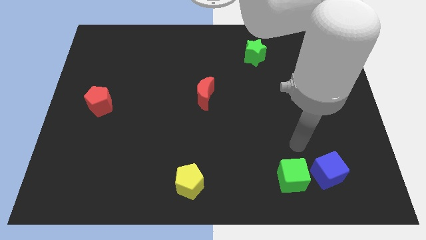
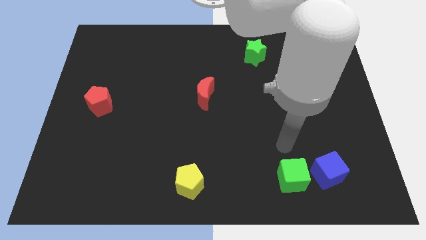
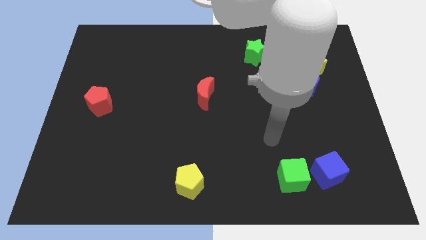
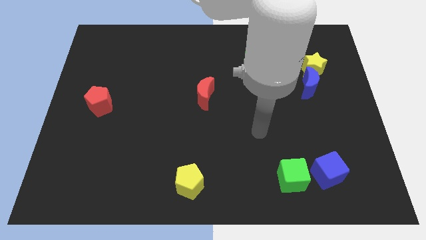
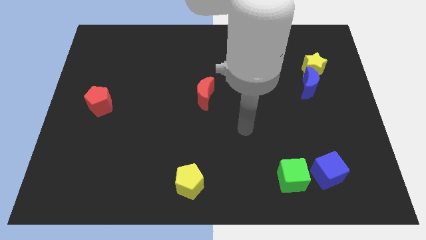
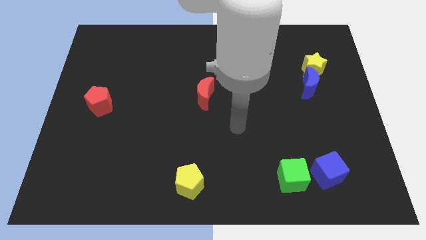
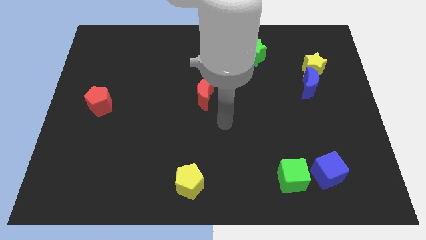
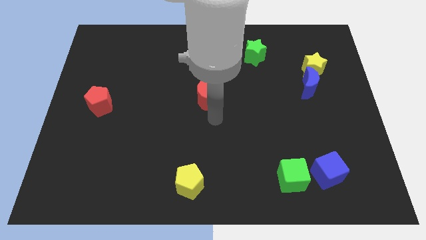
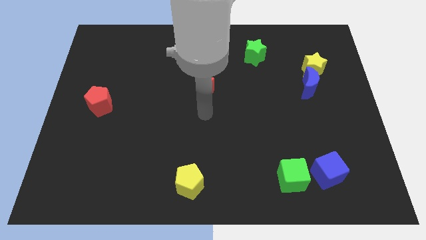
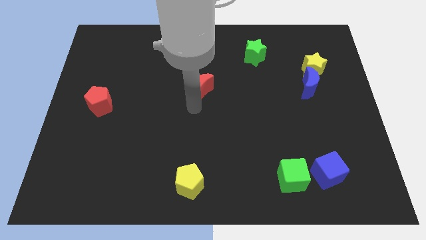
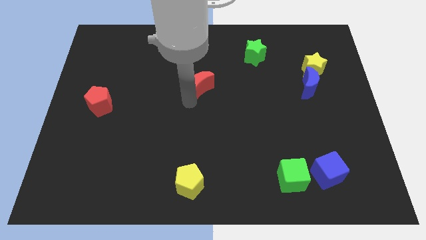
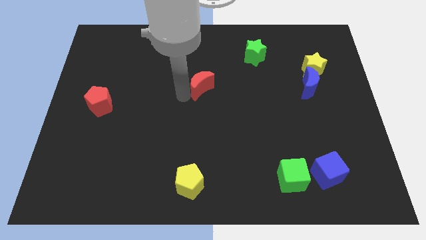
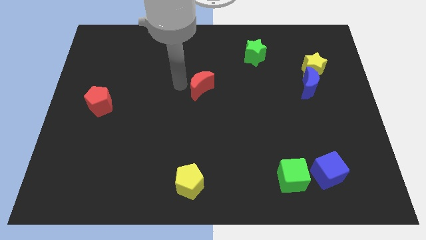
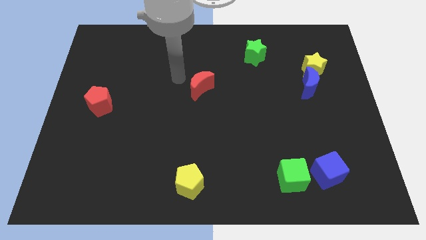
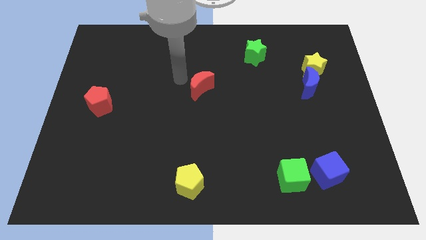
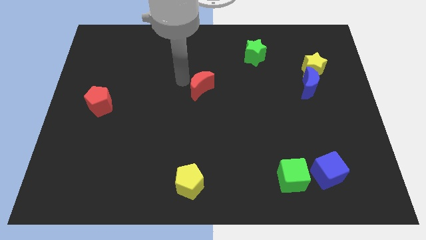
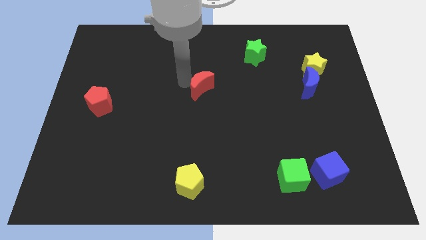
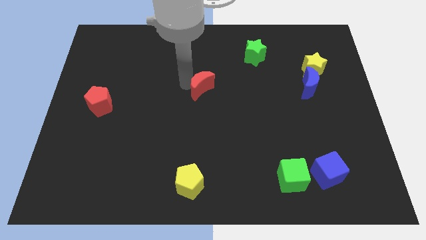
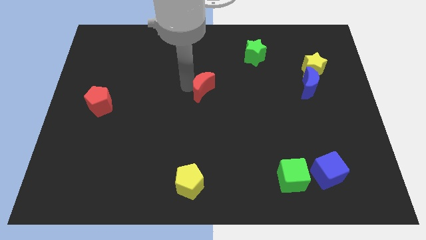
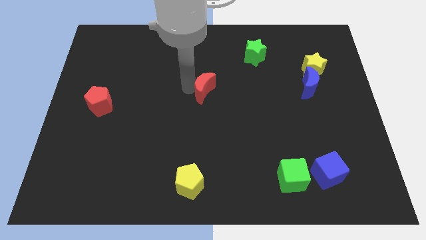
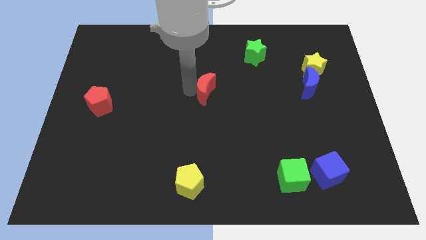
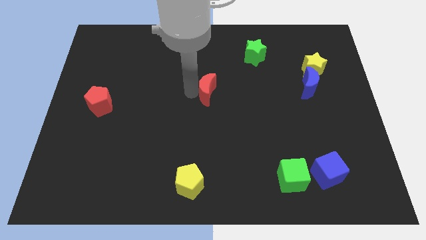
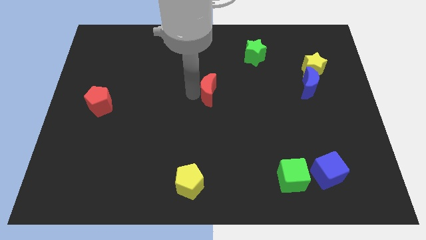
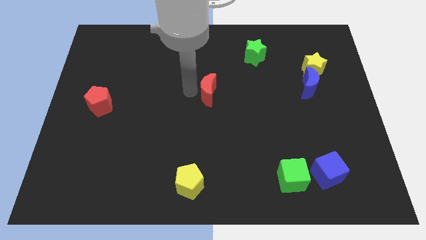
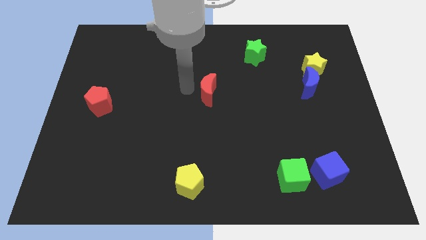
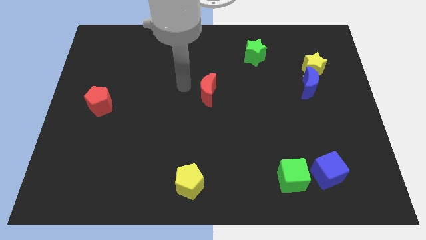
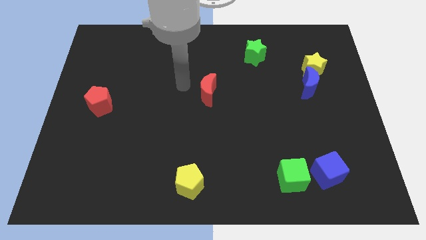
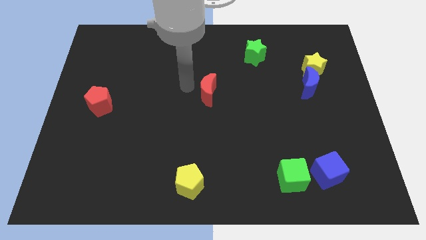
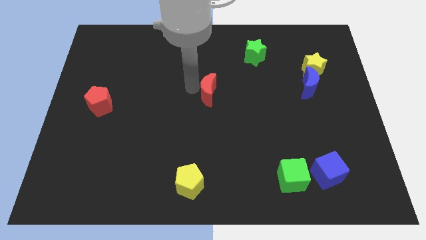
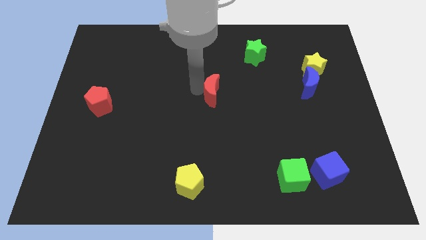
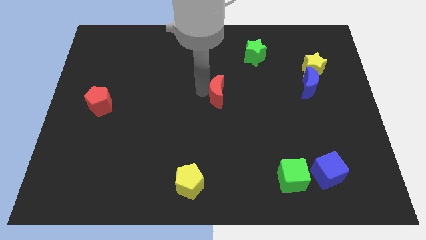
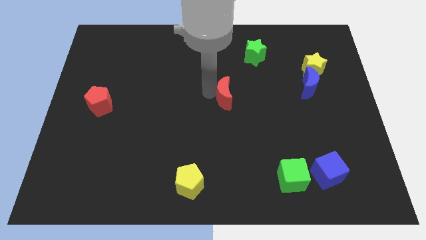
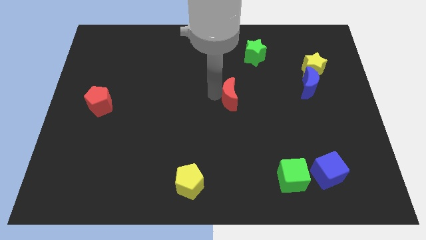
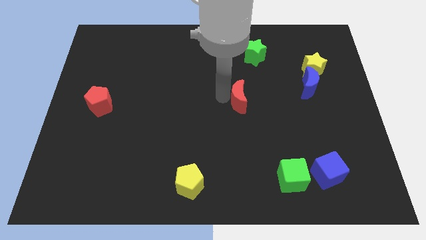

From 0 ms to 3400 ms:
slightly slide the red moon to the right

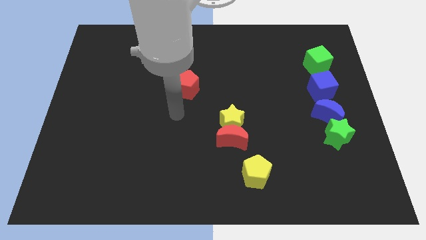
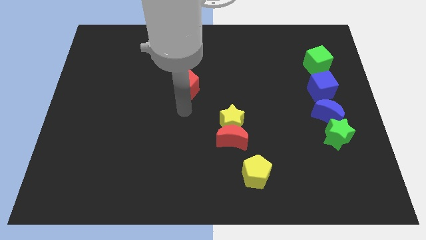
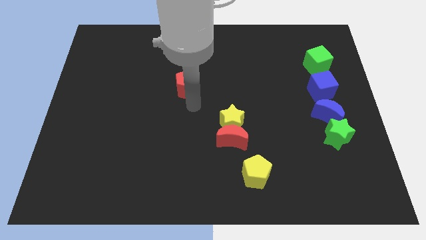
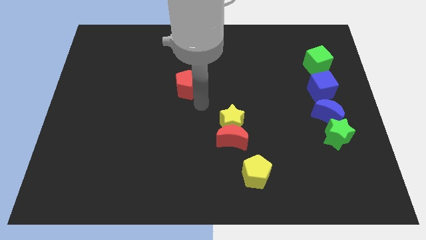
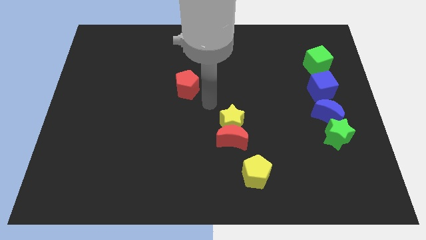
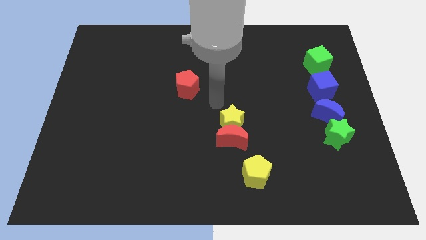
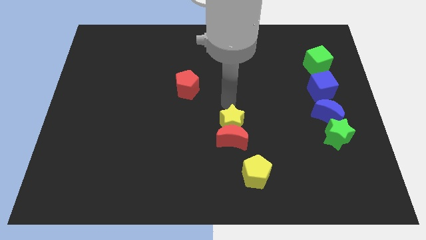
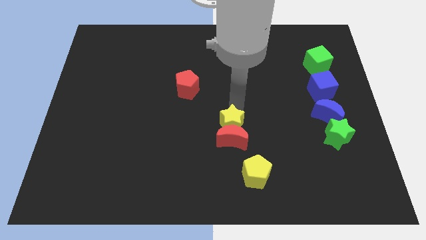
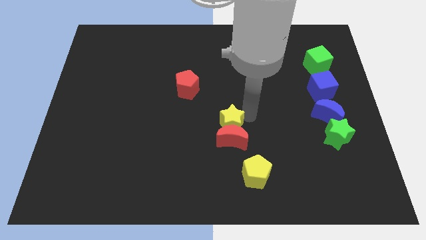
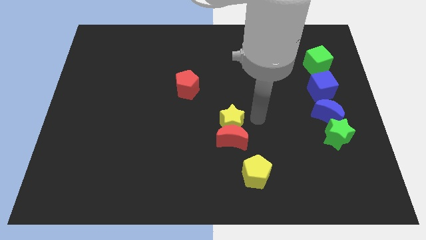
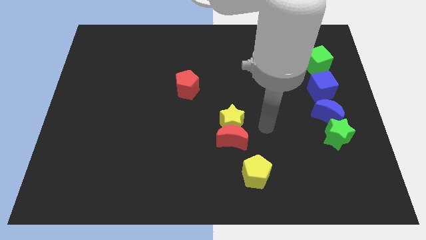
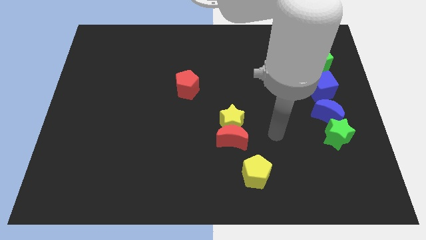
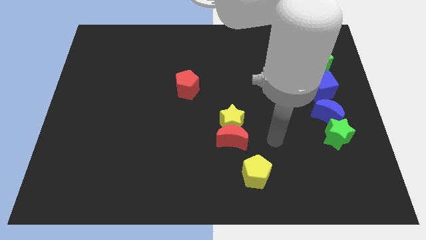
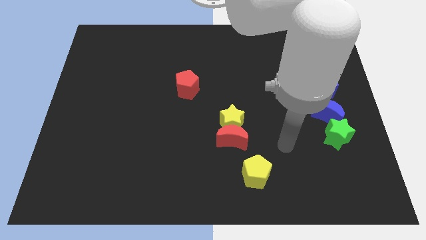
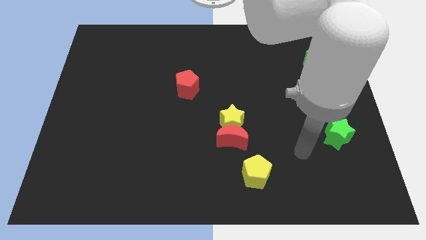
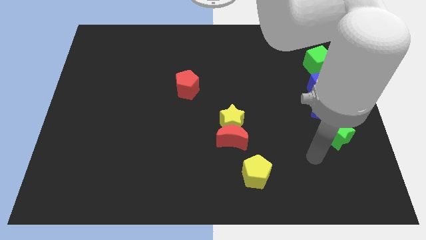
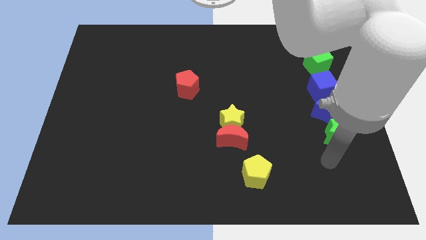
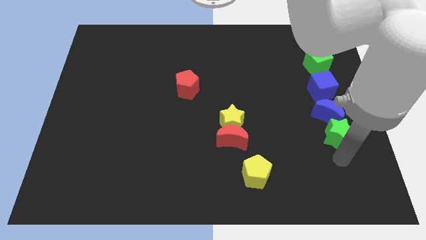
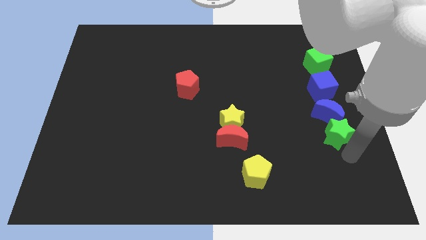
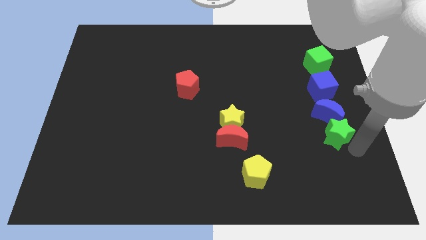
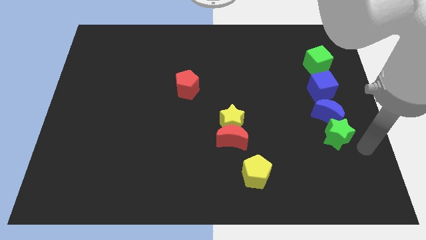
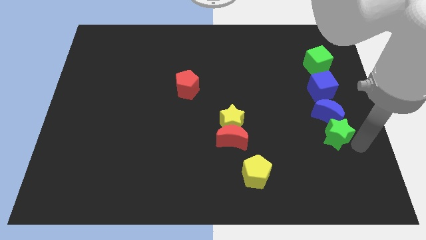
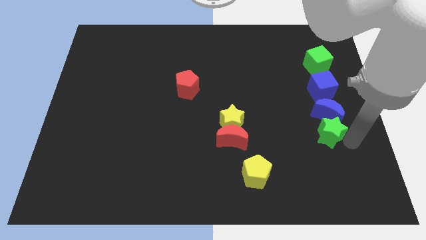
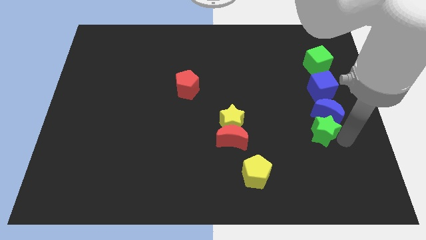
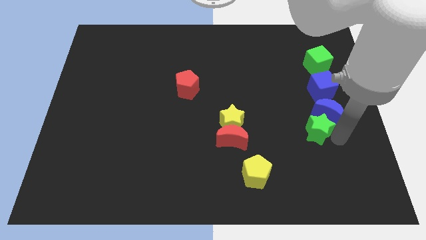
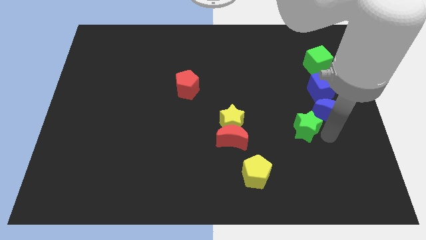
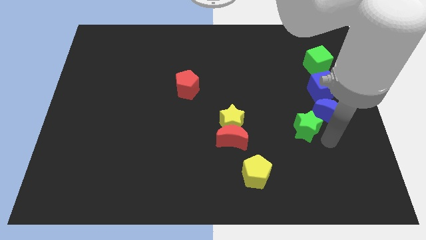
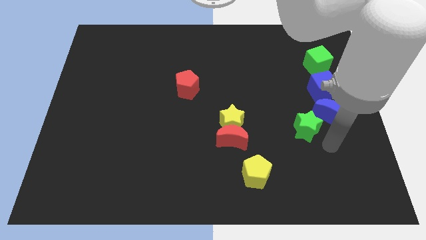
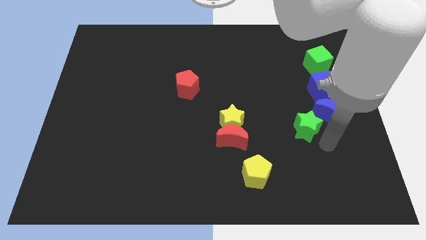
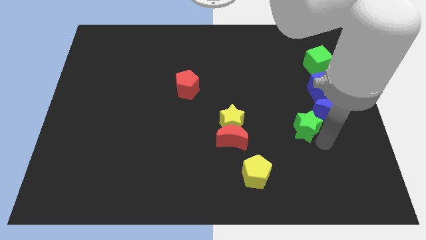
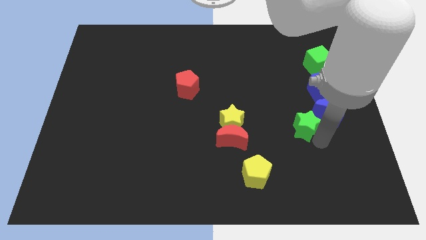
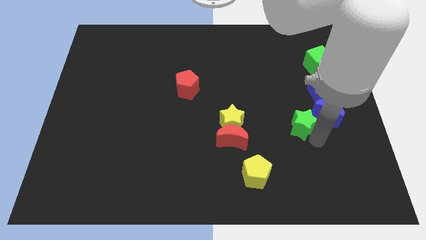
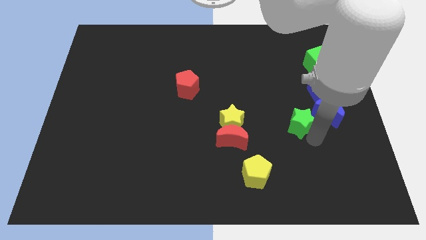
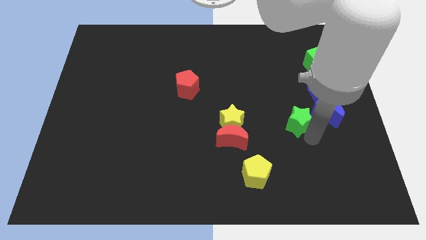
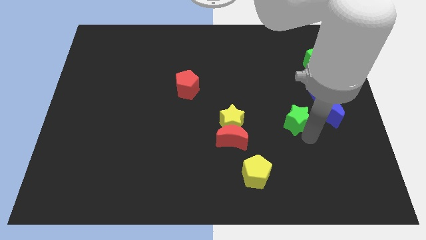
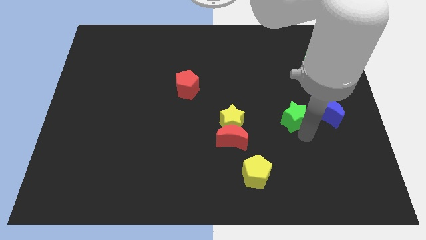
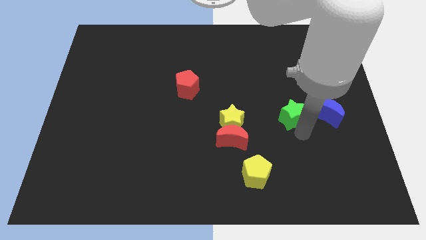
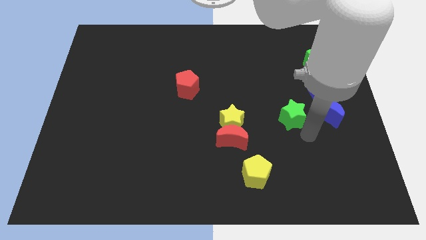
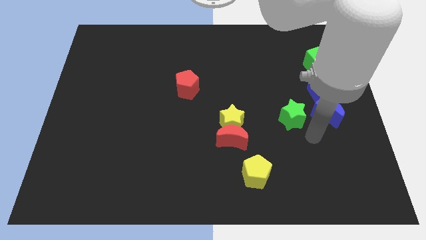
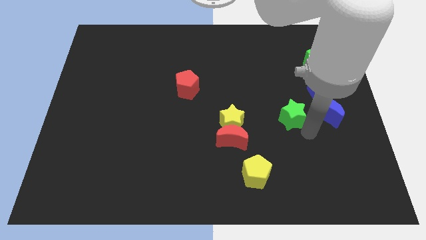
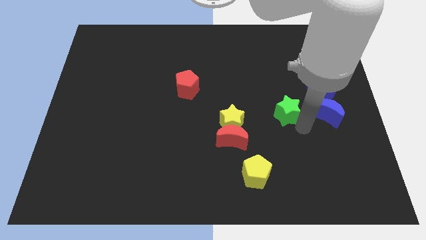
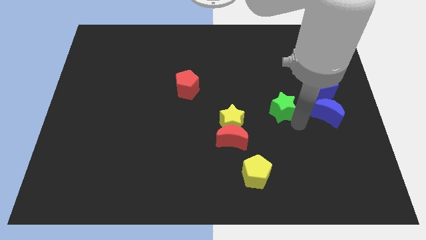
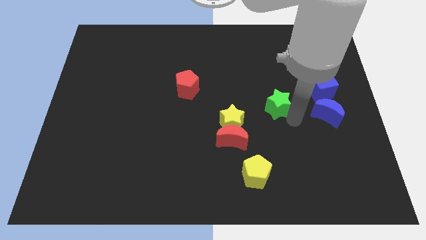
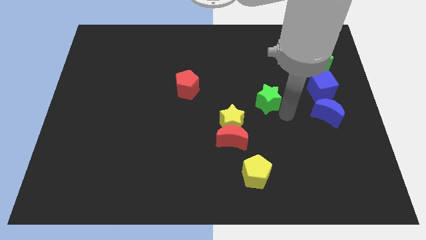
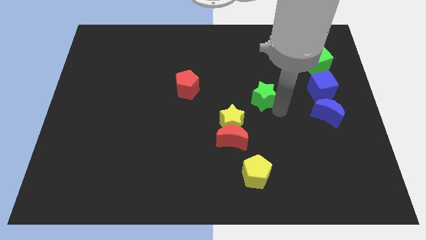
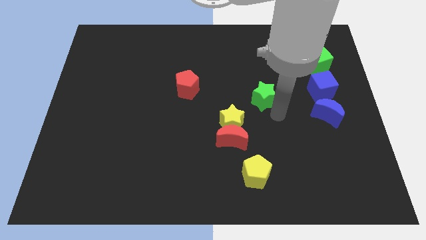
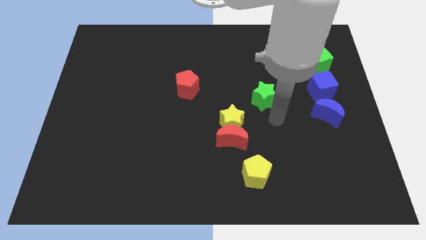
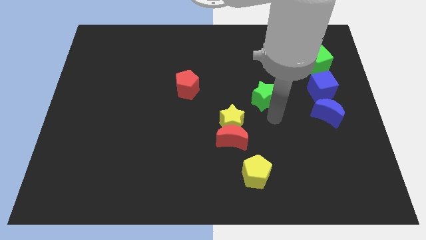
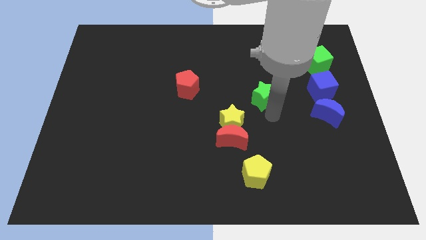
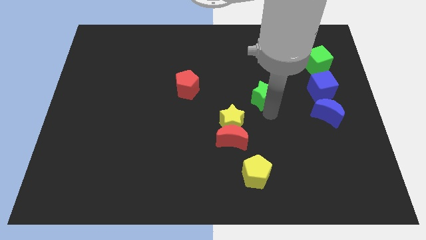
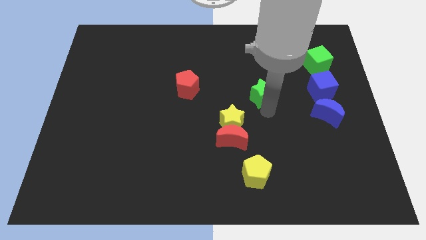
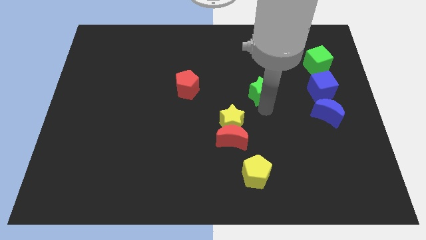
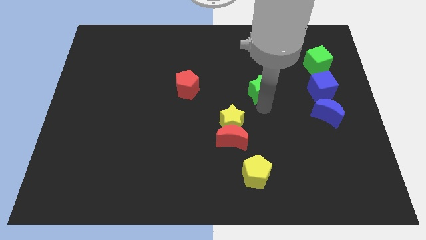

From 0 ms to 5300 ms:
push the green star up and to the left diagonally
